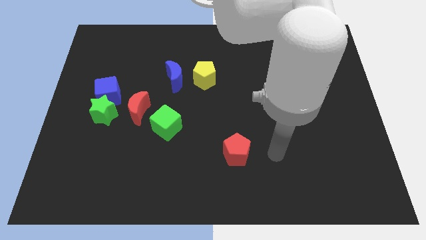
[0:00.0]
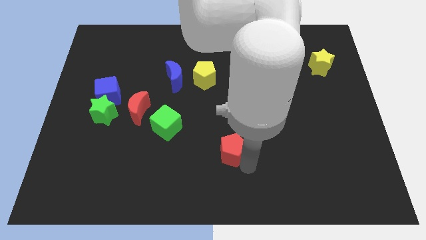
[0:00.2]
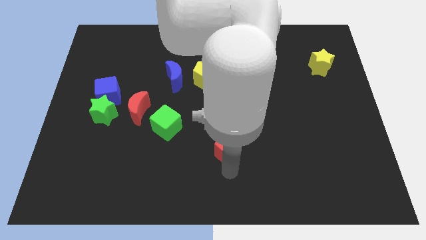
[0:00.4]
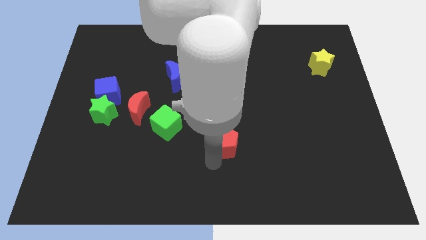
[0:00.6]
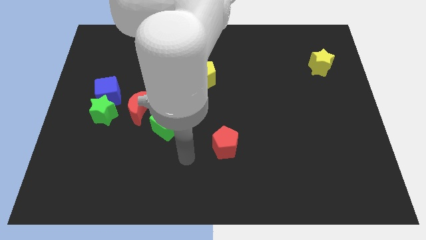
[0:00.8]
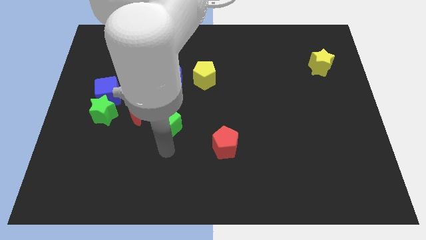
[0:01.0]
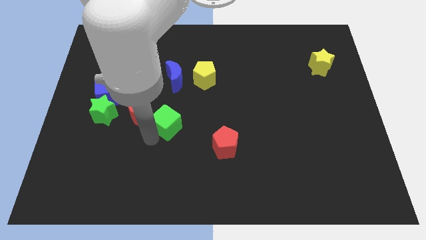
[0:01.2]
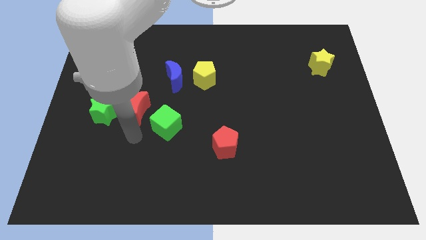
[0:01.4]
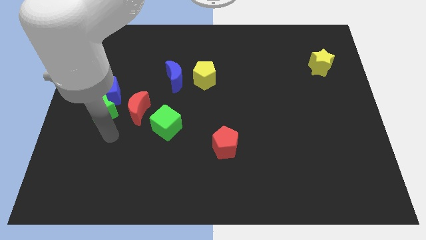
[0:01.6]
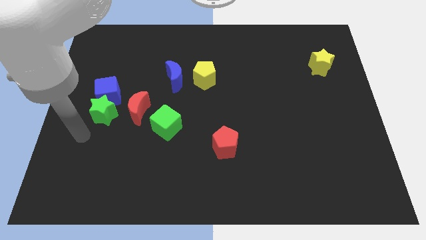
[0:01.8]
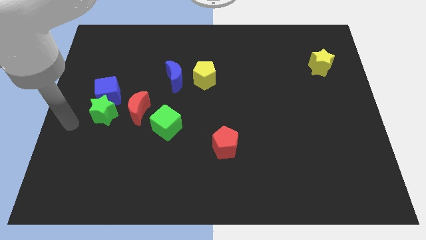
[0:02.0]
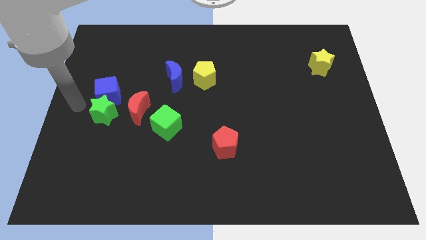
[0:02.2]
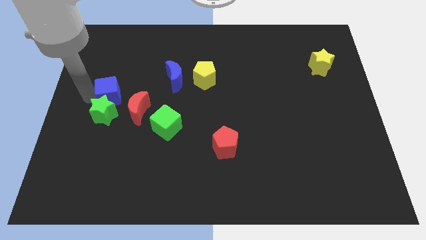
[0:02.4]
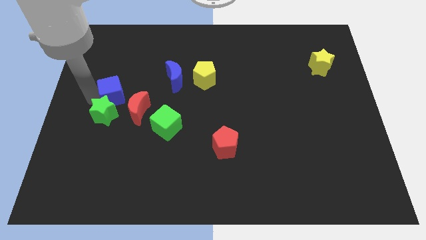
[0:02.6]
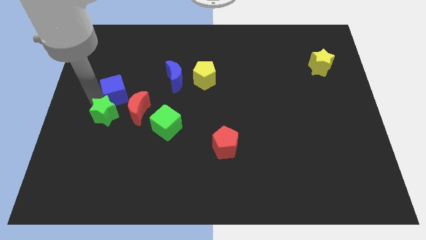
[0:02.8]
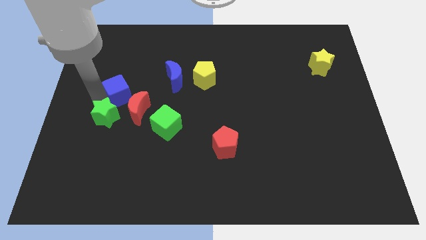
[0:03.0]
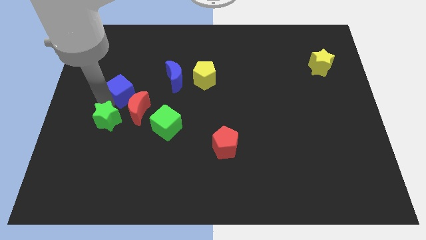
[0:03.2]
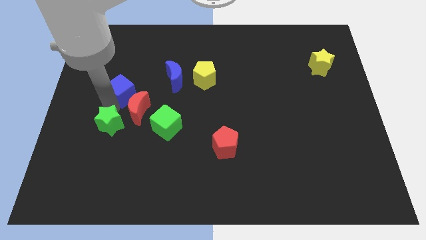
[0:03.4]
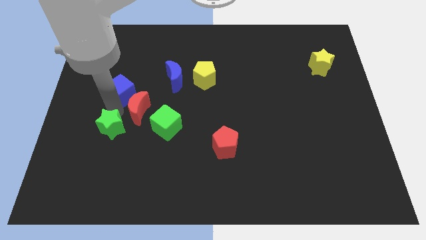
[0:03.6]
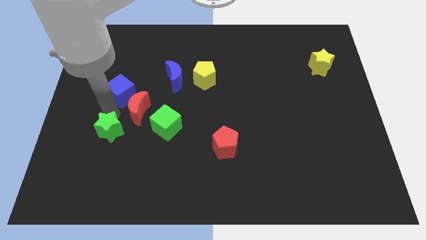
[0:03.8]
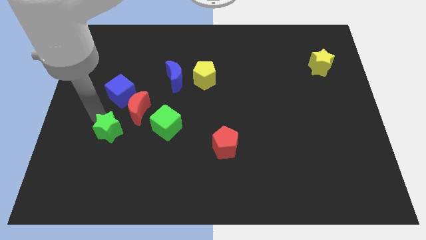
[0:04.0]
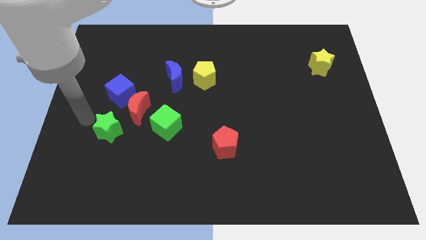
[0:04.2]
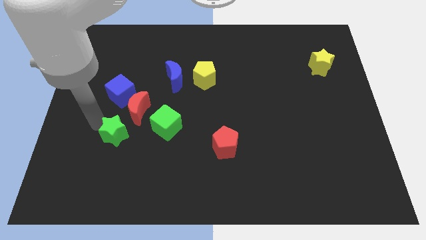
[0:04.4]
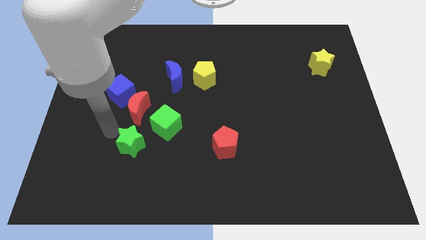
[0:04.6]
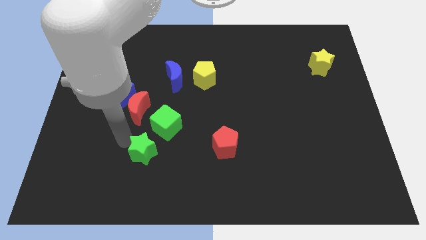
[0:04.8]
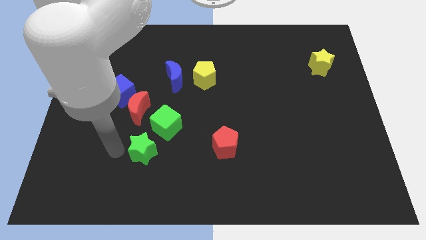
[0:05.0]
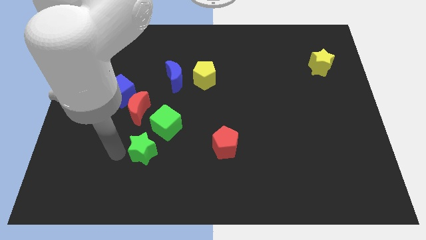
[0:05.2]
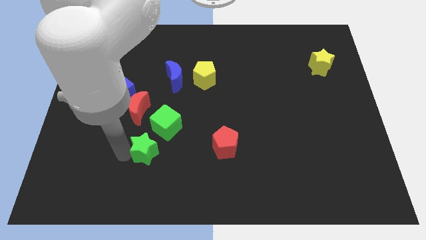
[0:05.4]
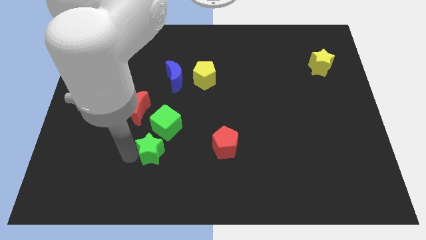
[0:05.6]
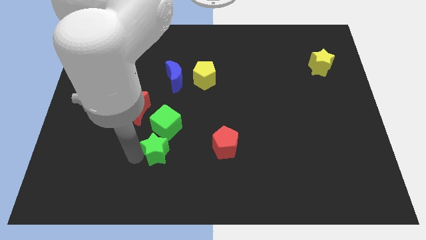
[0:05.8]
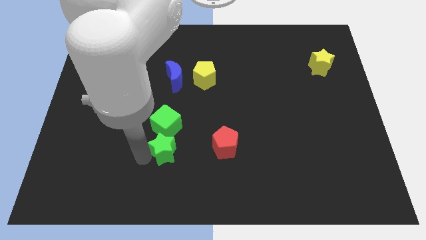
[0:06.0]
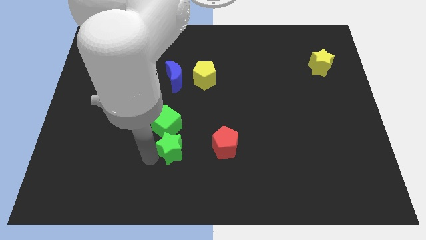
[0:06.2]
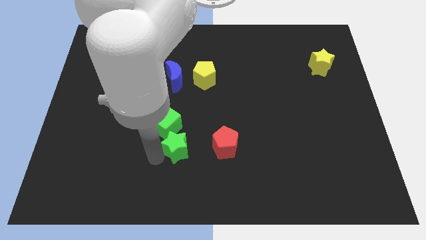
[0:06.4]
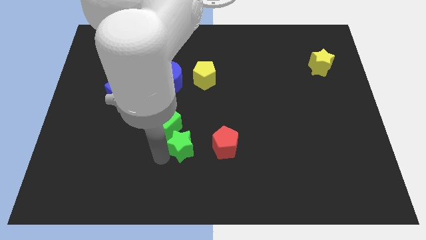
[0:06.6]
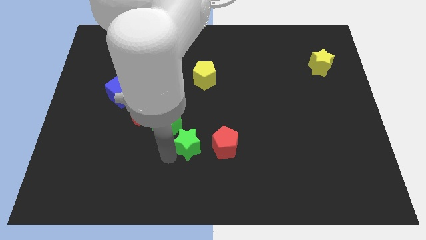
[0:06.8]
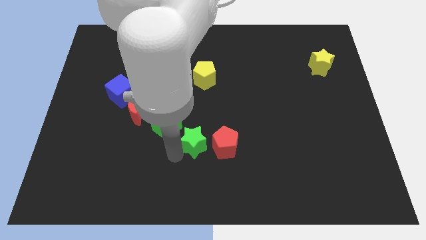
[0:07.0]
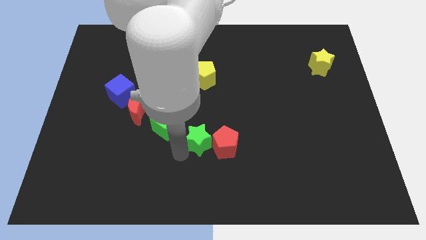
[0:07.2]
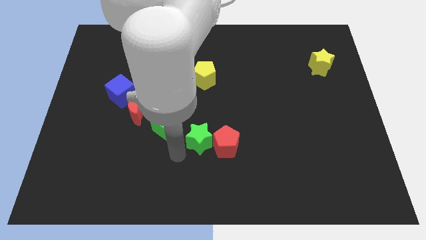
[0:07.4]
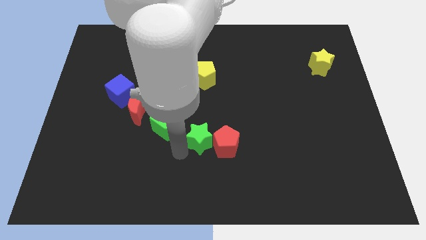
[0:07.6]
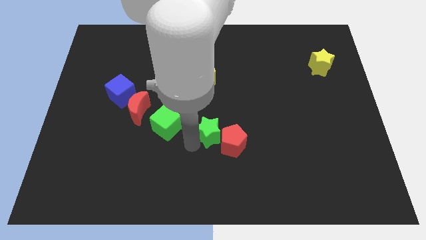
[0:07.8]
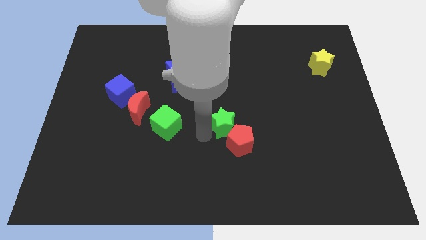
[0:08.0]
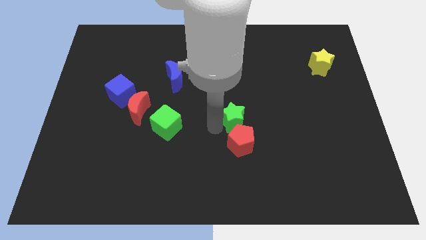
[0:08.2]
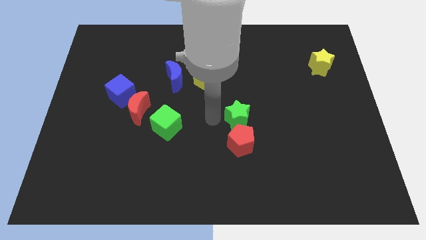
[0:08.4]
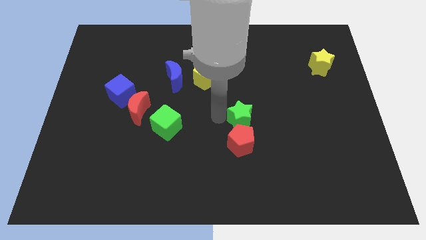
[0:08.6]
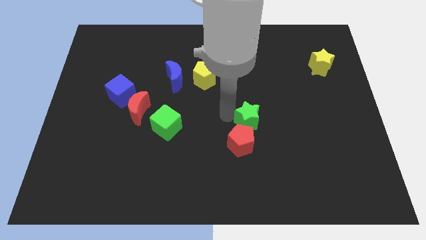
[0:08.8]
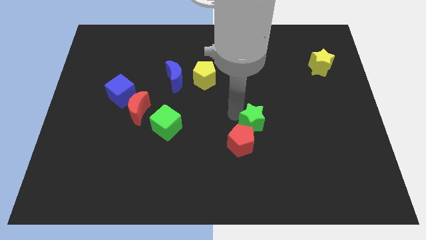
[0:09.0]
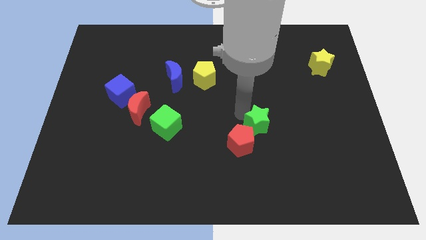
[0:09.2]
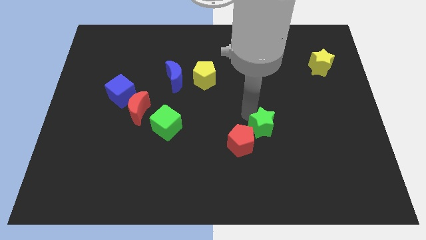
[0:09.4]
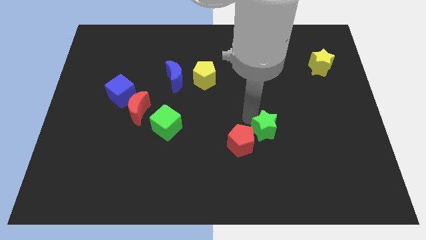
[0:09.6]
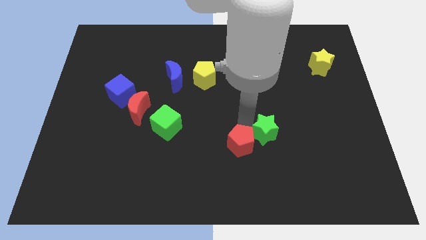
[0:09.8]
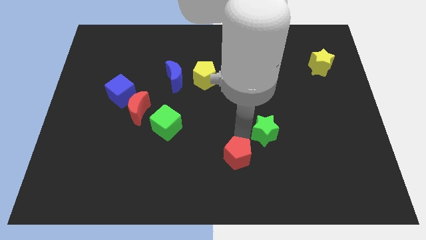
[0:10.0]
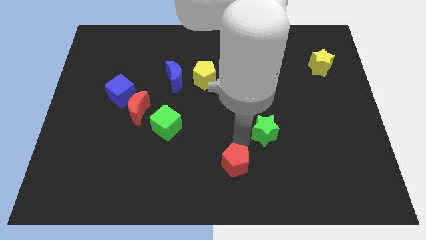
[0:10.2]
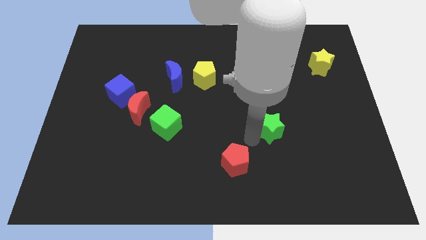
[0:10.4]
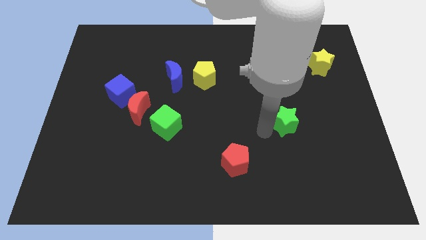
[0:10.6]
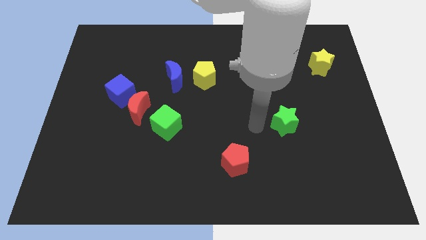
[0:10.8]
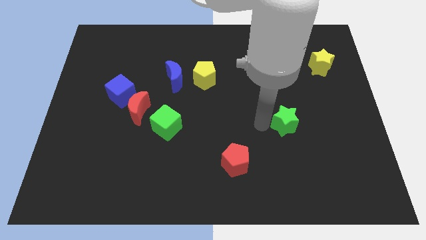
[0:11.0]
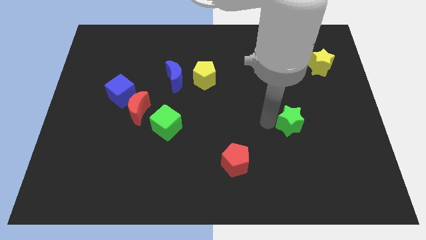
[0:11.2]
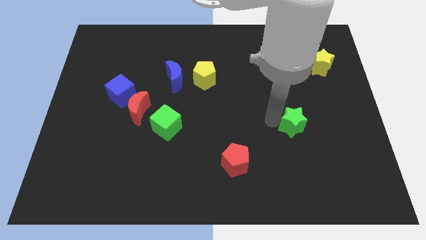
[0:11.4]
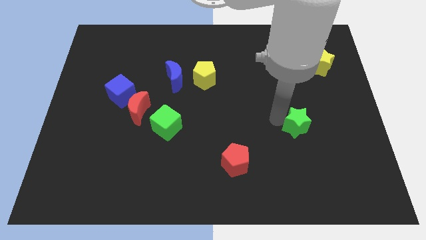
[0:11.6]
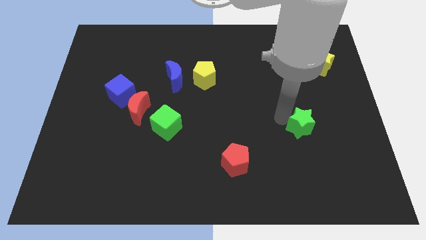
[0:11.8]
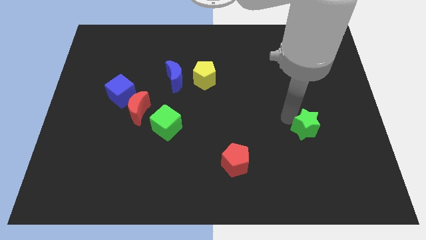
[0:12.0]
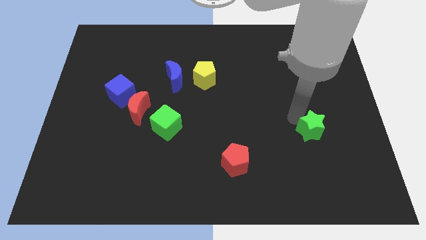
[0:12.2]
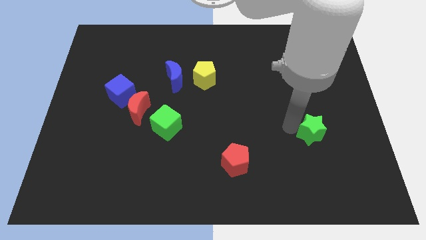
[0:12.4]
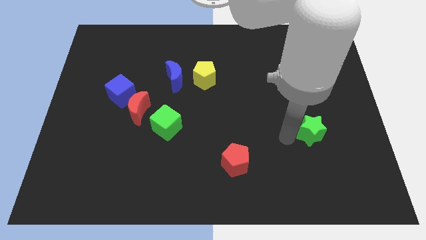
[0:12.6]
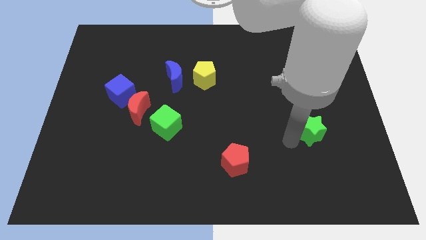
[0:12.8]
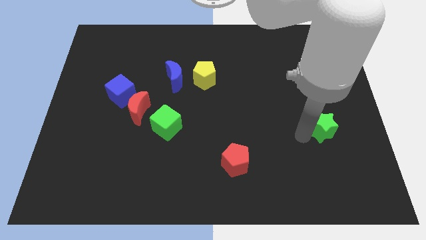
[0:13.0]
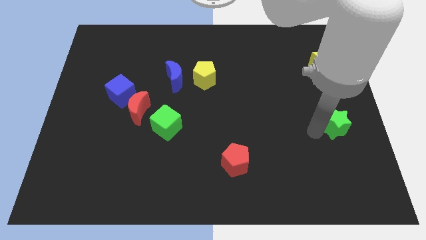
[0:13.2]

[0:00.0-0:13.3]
put the green star to the right side of the board
